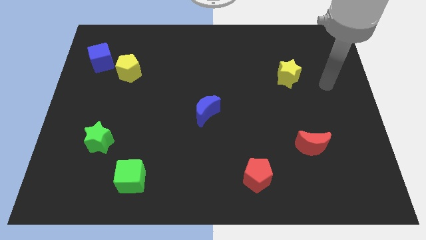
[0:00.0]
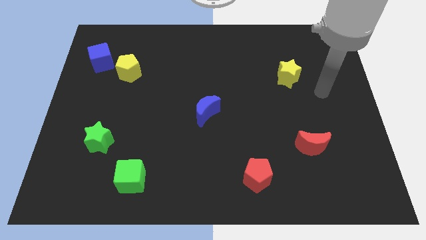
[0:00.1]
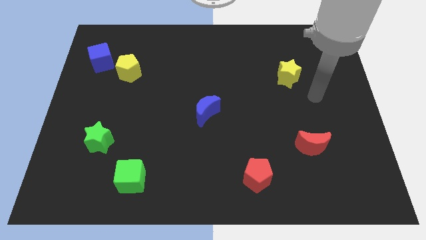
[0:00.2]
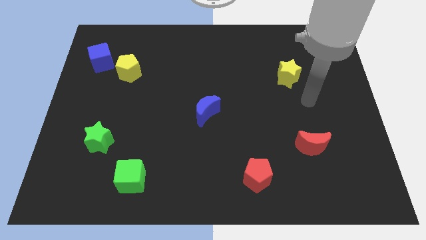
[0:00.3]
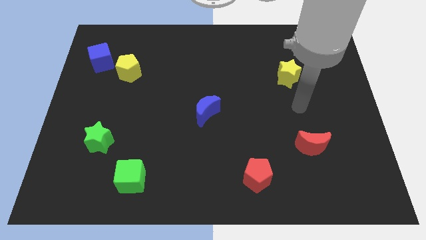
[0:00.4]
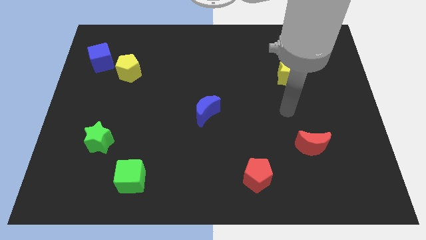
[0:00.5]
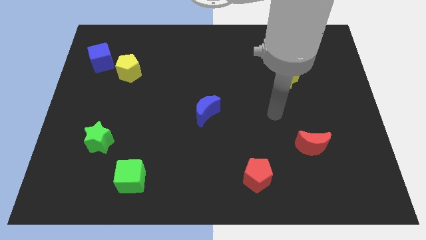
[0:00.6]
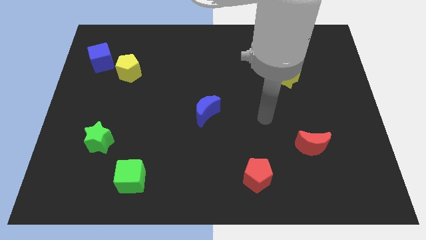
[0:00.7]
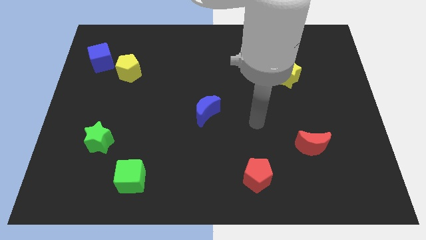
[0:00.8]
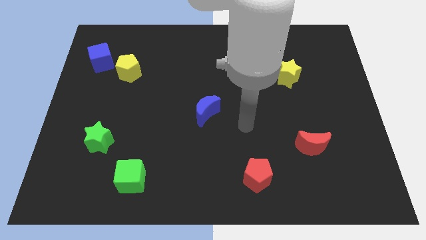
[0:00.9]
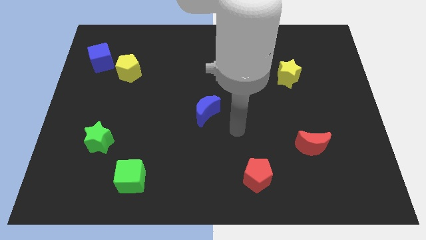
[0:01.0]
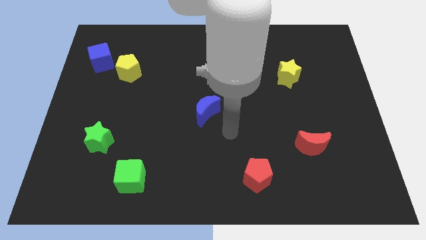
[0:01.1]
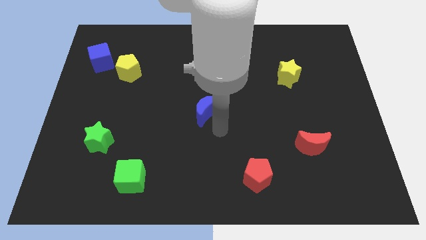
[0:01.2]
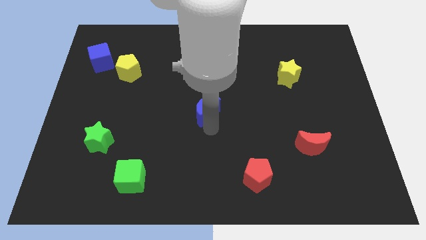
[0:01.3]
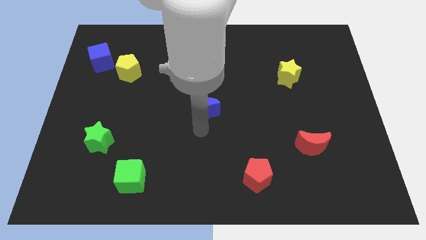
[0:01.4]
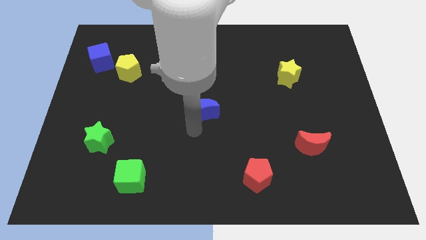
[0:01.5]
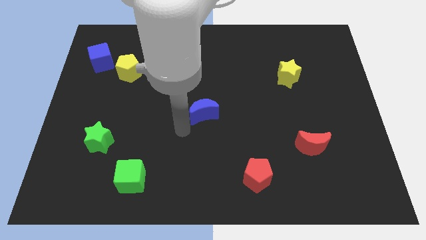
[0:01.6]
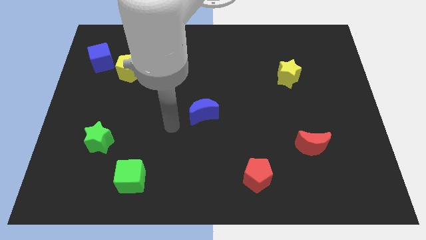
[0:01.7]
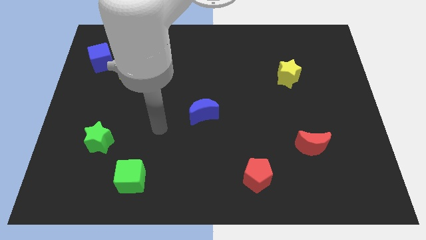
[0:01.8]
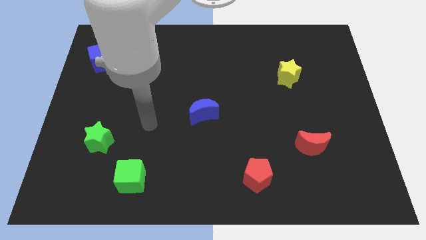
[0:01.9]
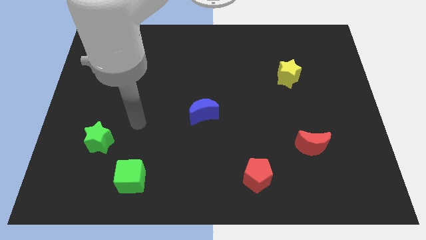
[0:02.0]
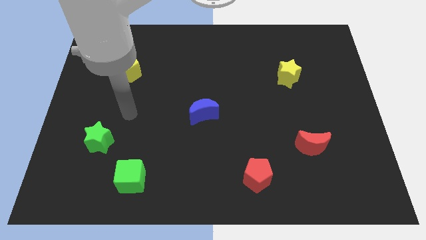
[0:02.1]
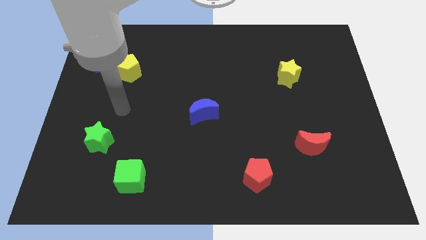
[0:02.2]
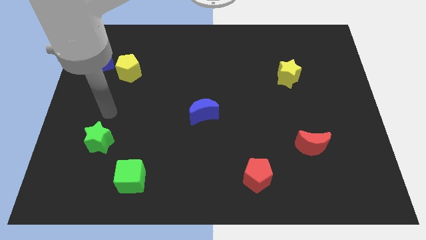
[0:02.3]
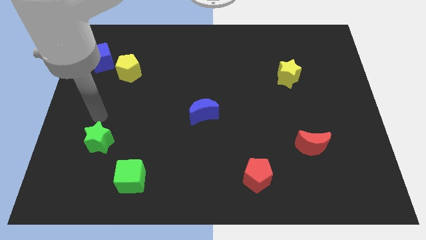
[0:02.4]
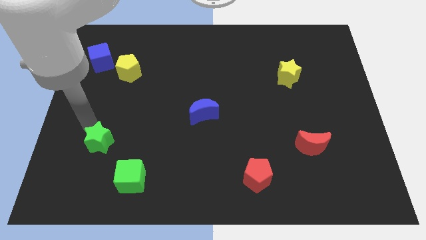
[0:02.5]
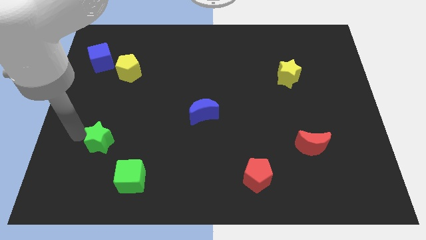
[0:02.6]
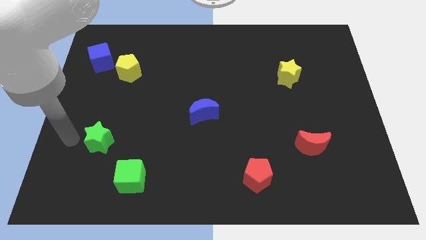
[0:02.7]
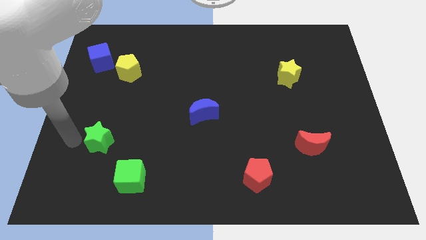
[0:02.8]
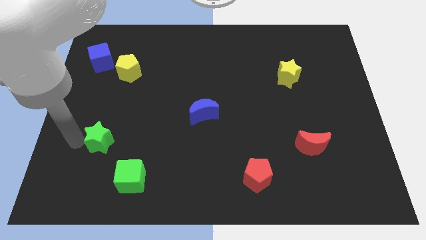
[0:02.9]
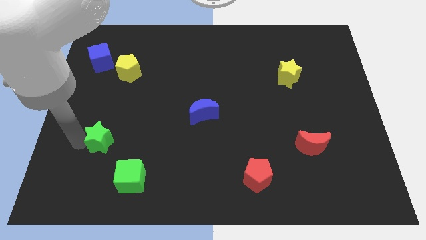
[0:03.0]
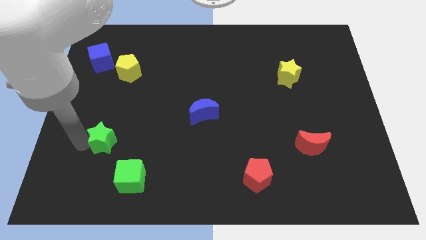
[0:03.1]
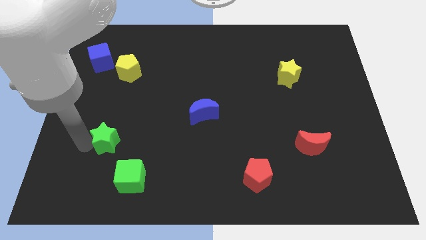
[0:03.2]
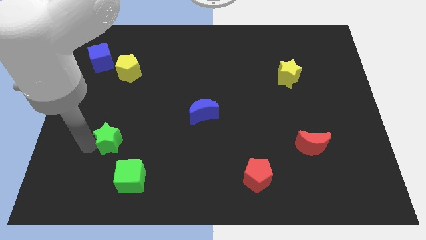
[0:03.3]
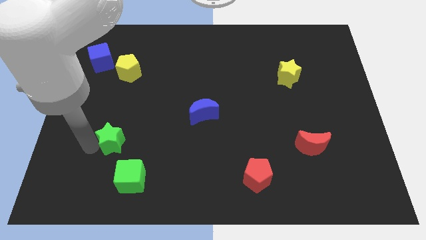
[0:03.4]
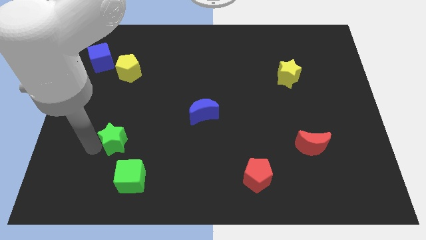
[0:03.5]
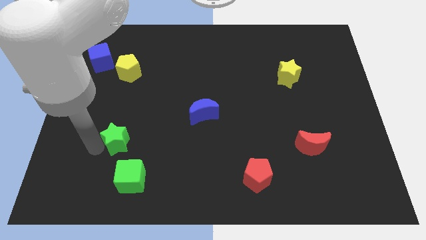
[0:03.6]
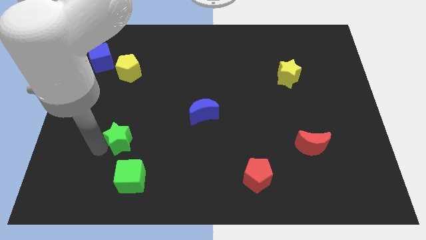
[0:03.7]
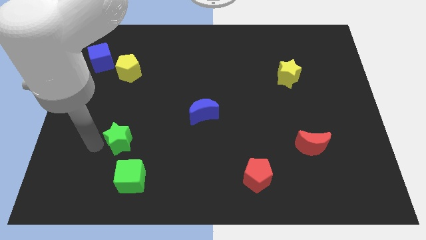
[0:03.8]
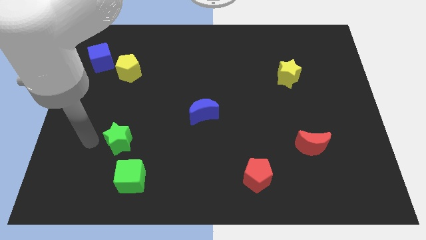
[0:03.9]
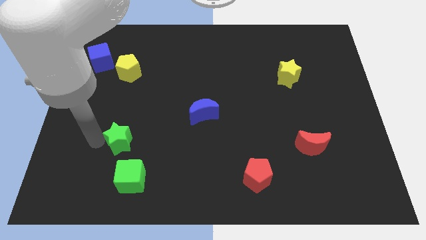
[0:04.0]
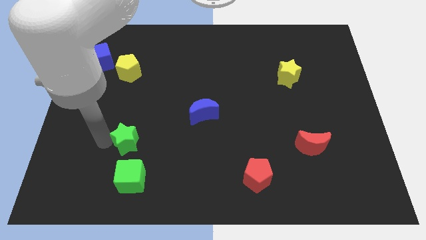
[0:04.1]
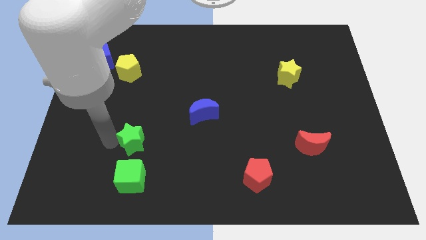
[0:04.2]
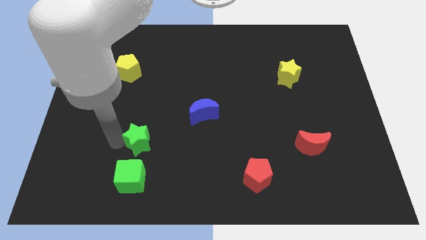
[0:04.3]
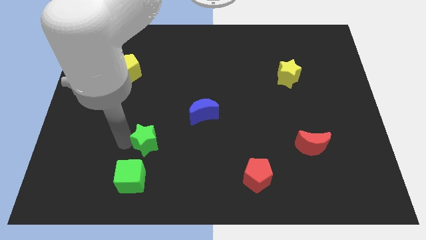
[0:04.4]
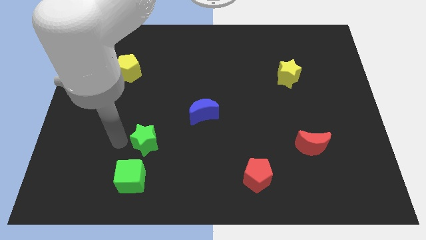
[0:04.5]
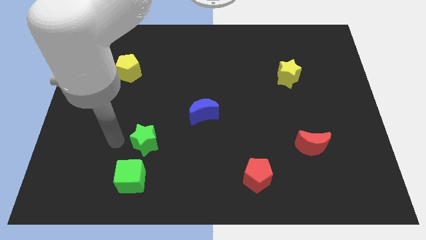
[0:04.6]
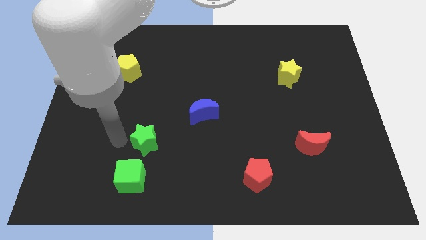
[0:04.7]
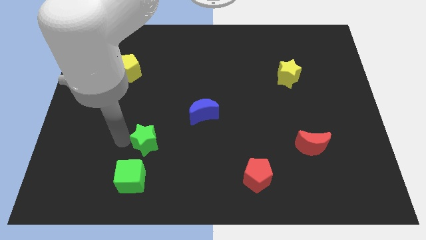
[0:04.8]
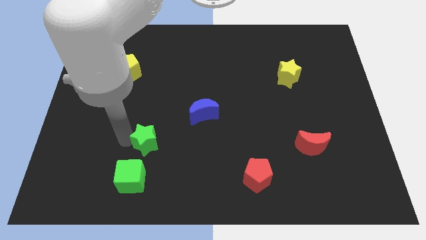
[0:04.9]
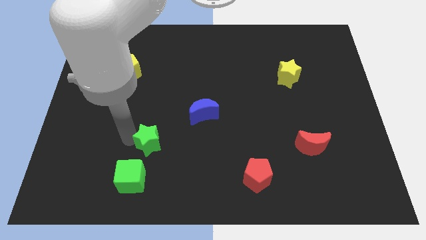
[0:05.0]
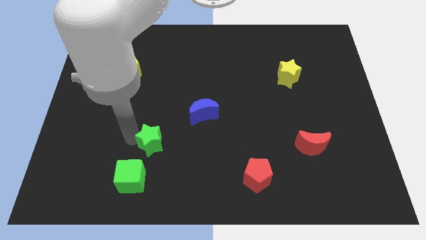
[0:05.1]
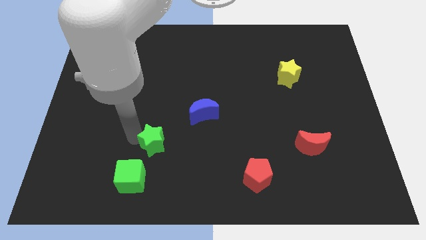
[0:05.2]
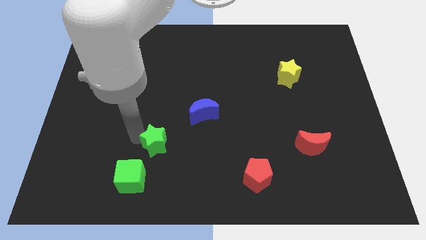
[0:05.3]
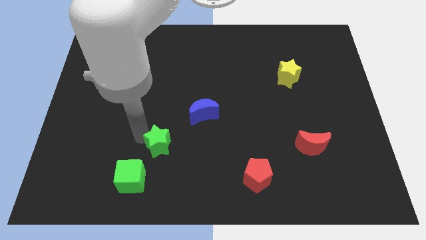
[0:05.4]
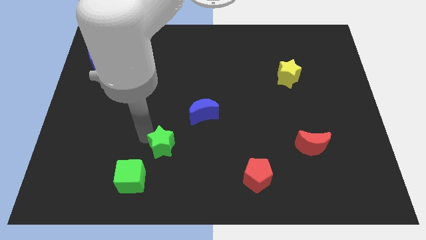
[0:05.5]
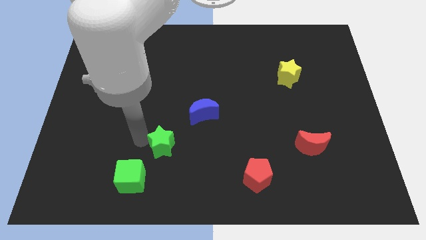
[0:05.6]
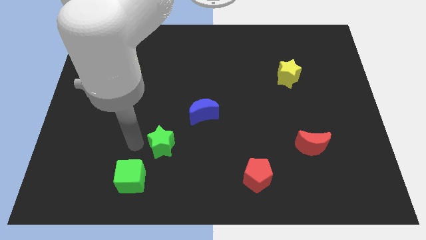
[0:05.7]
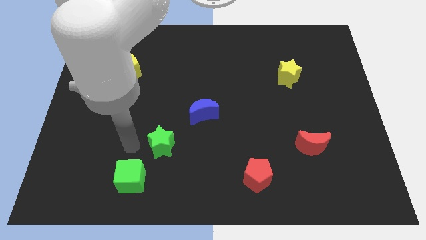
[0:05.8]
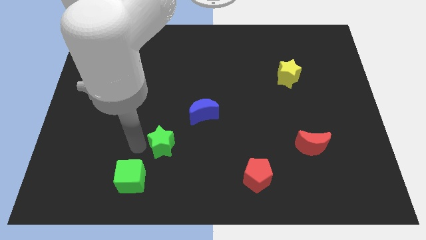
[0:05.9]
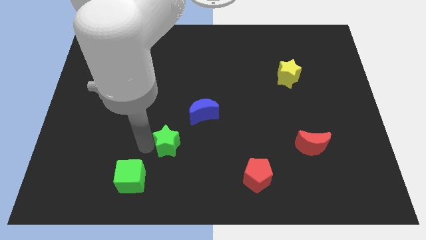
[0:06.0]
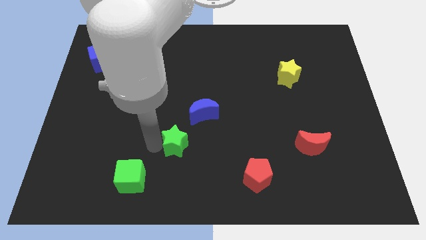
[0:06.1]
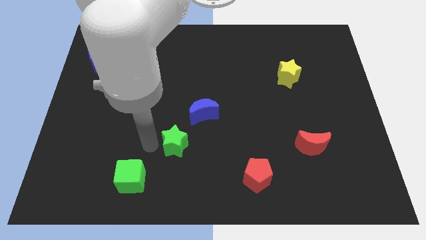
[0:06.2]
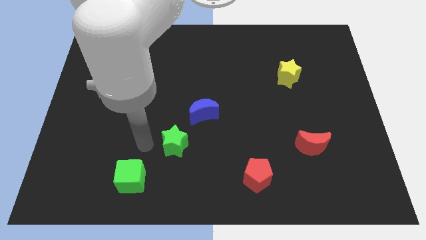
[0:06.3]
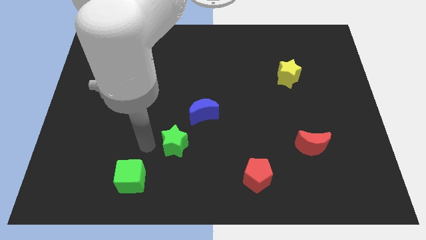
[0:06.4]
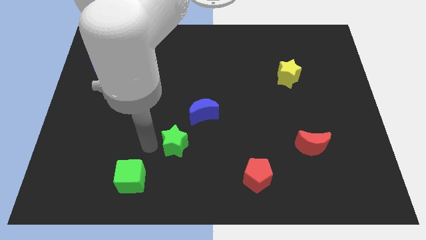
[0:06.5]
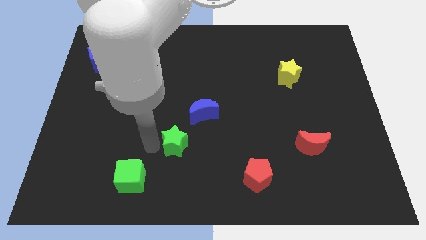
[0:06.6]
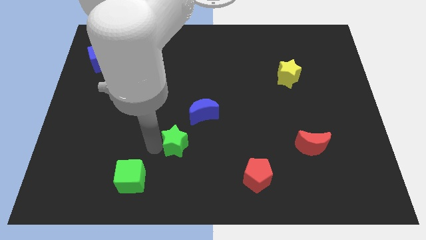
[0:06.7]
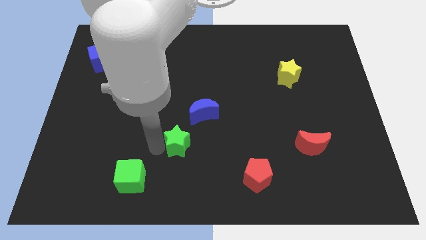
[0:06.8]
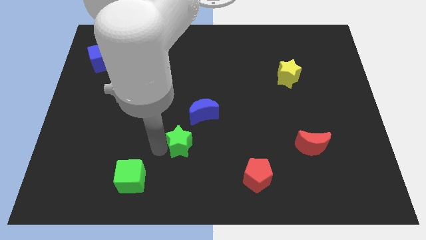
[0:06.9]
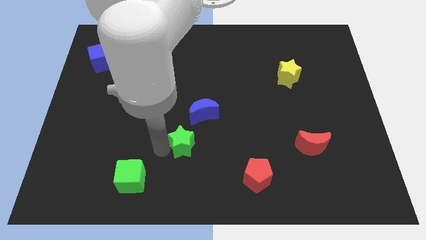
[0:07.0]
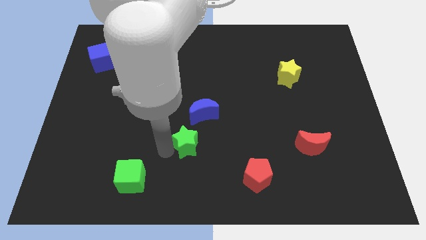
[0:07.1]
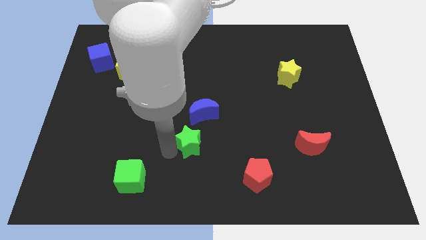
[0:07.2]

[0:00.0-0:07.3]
slide the green star right

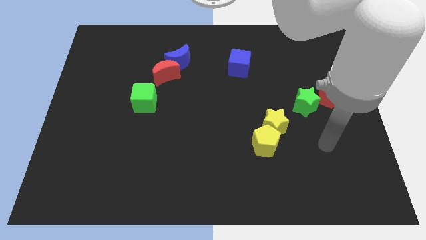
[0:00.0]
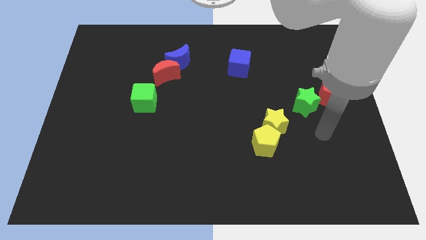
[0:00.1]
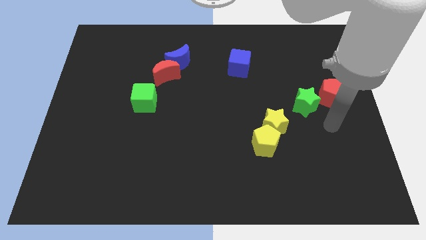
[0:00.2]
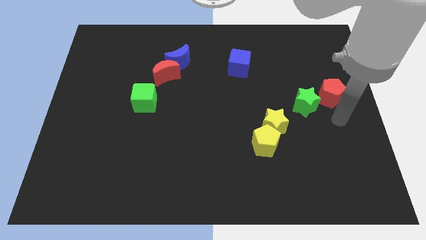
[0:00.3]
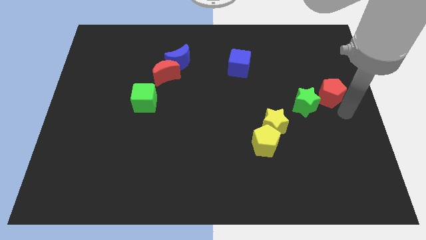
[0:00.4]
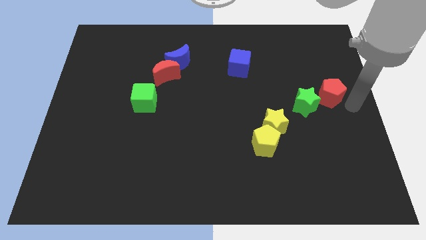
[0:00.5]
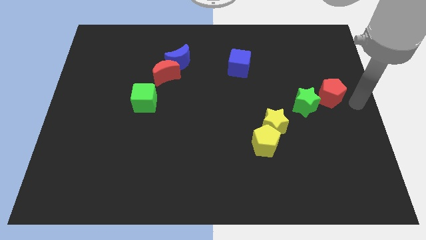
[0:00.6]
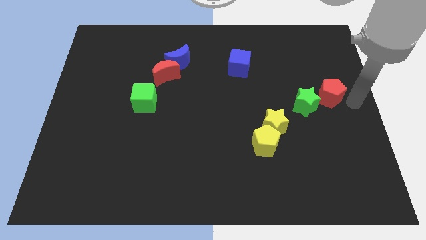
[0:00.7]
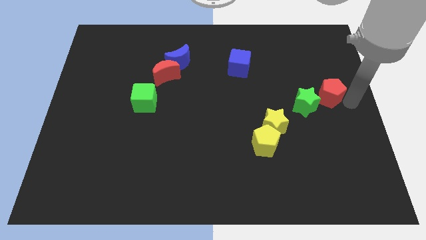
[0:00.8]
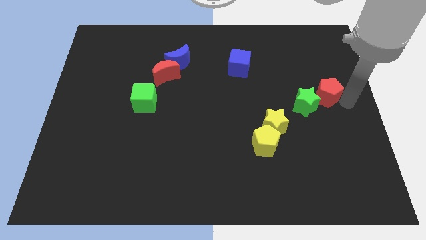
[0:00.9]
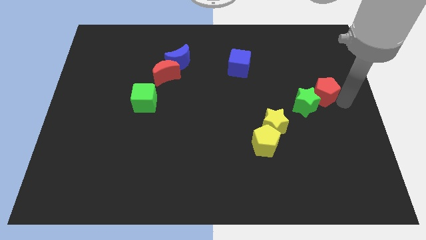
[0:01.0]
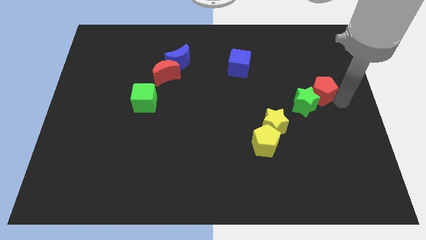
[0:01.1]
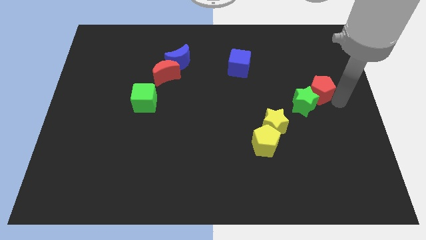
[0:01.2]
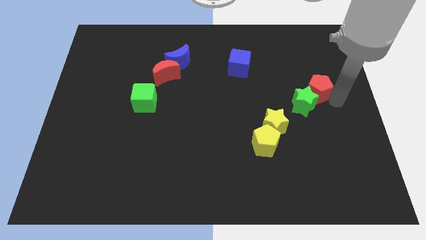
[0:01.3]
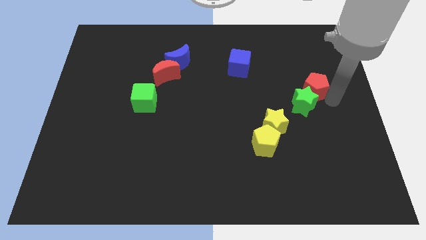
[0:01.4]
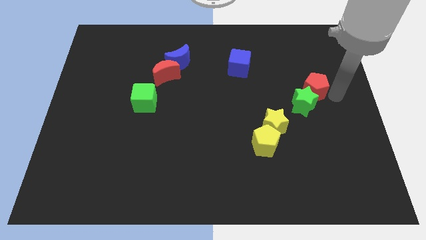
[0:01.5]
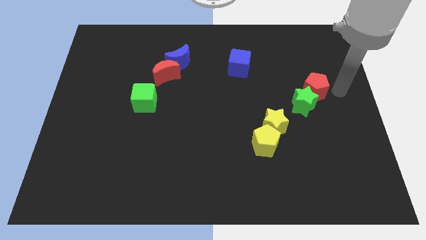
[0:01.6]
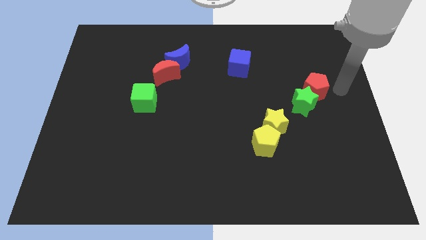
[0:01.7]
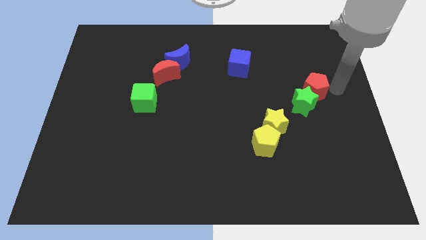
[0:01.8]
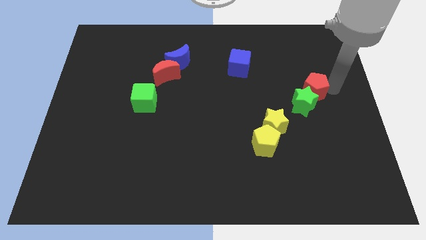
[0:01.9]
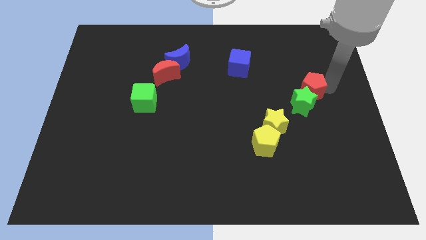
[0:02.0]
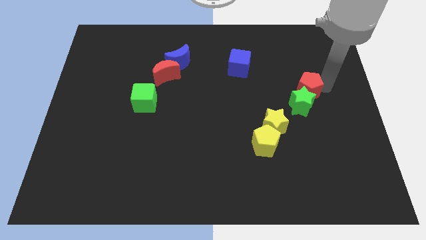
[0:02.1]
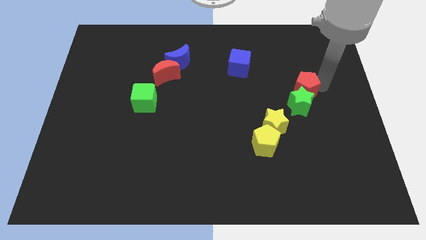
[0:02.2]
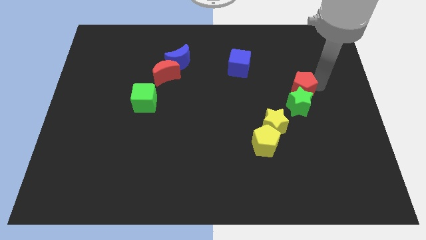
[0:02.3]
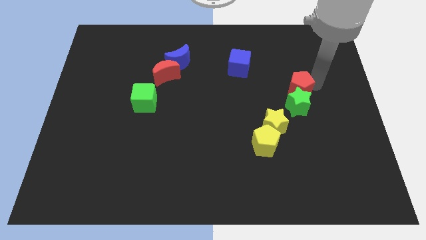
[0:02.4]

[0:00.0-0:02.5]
slide the red pentagon left somewhat
